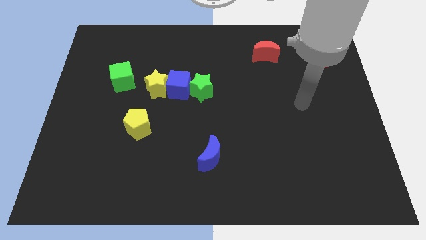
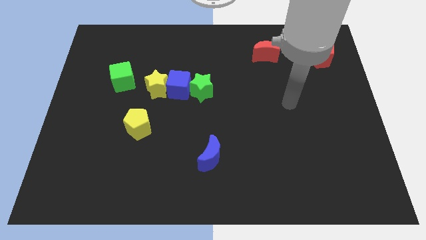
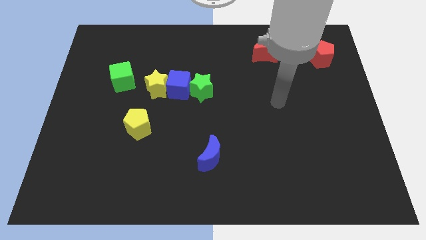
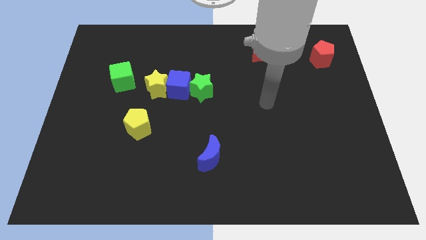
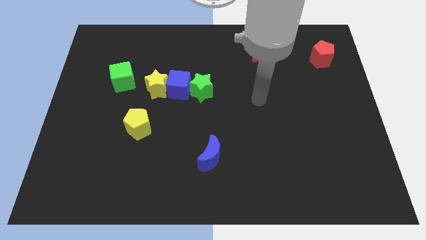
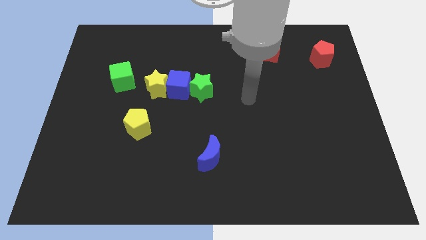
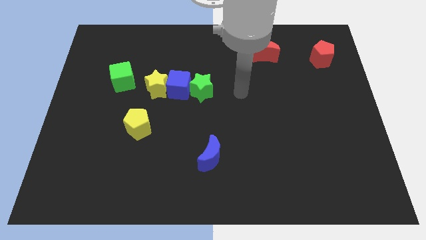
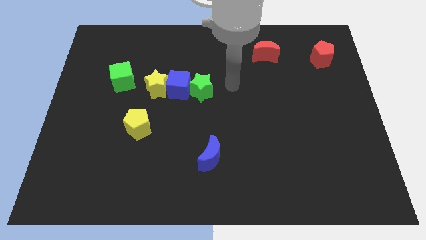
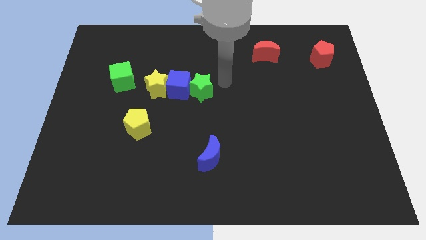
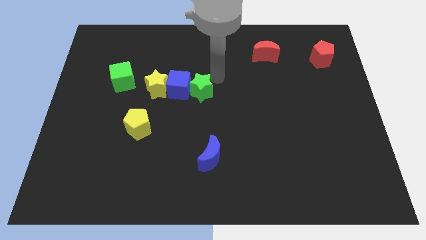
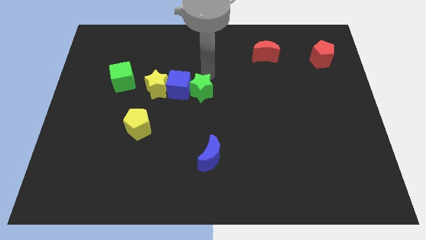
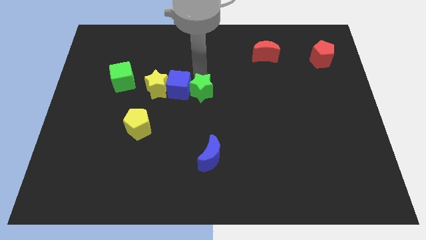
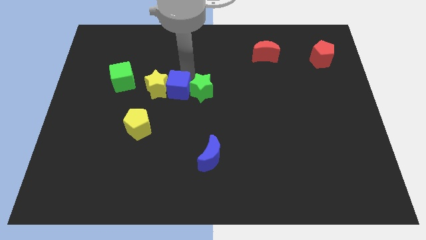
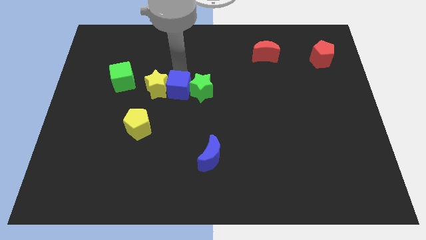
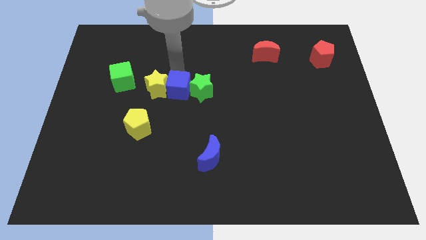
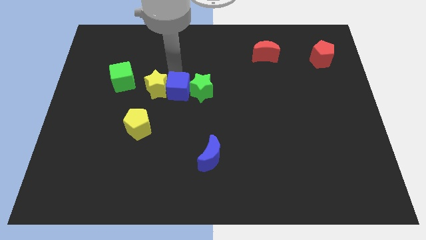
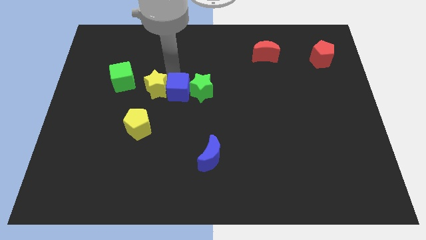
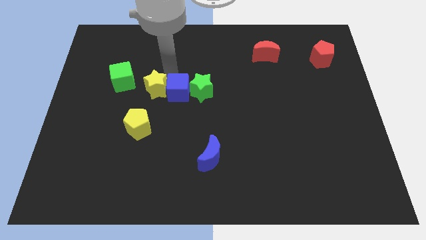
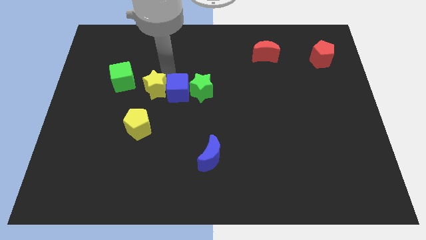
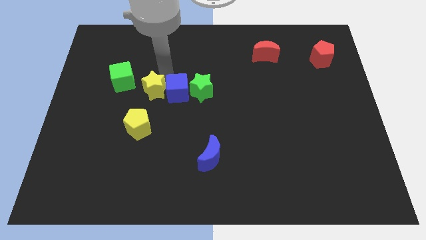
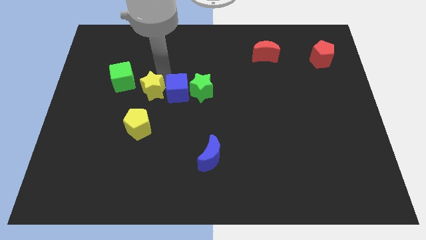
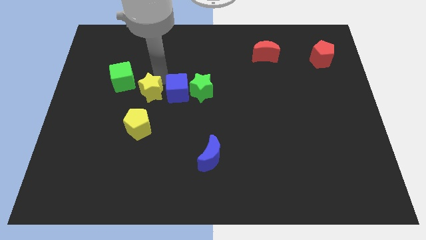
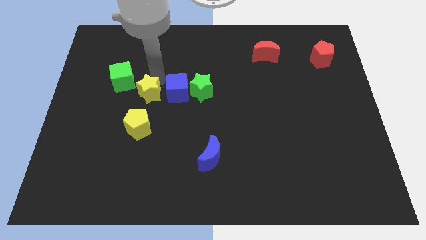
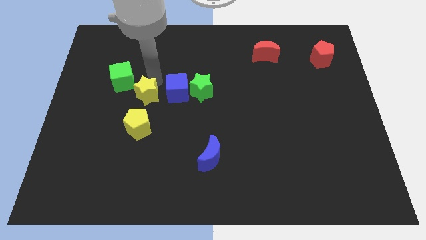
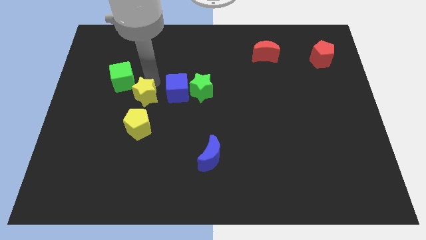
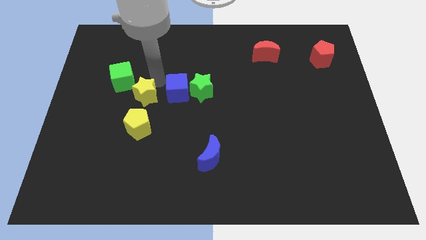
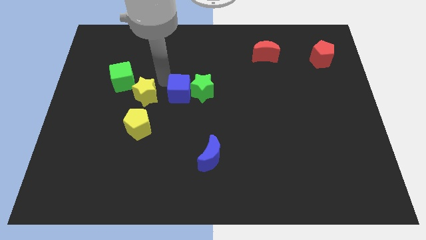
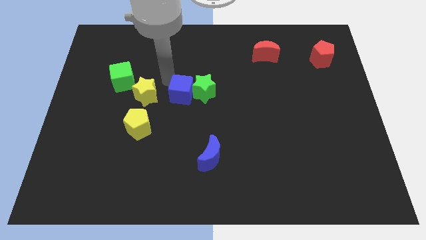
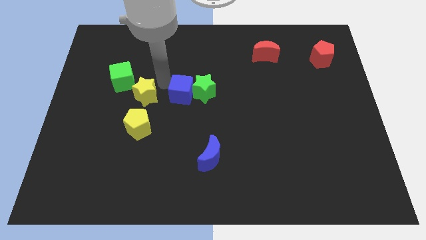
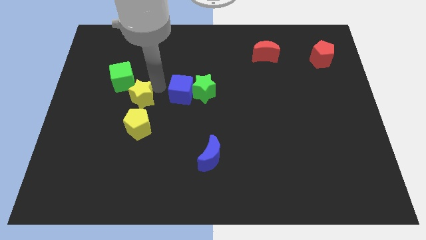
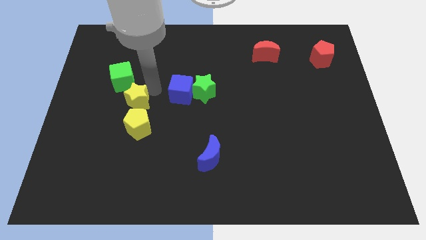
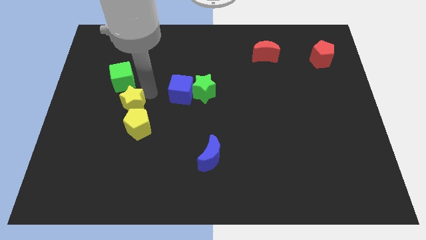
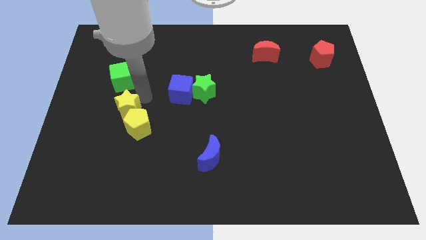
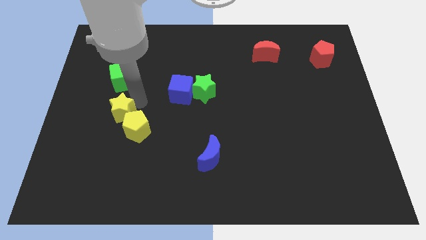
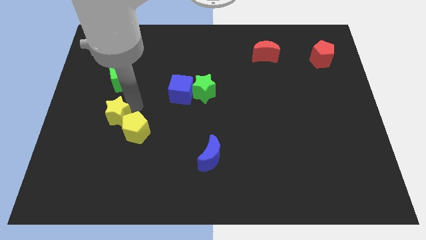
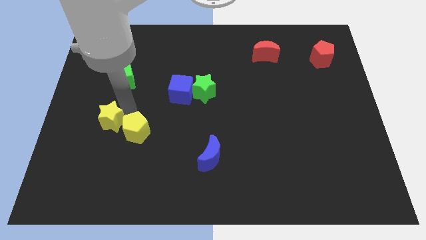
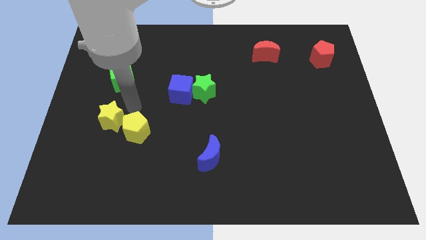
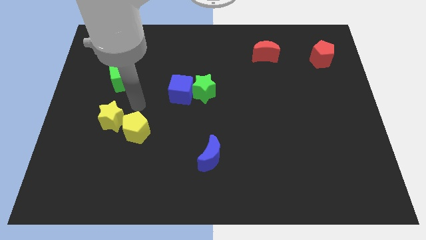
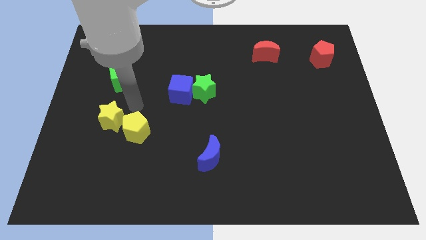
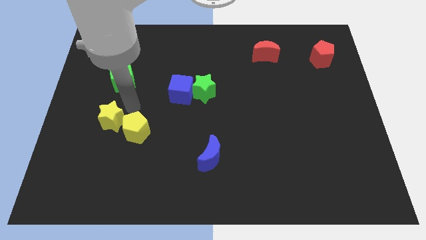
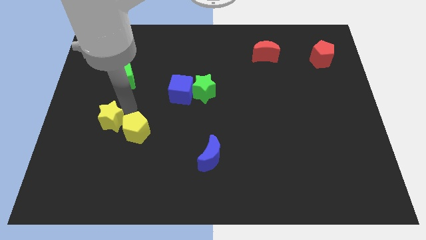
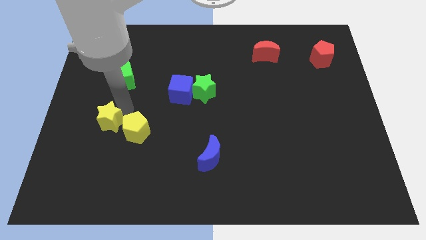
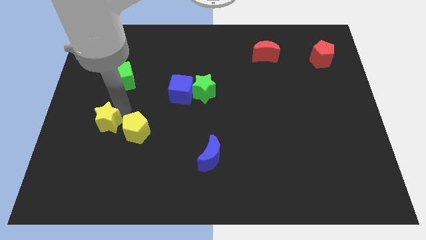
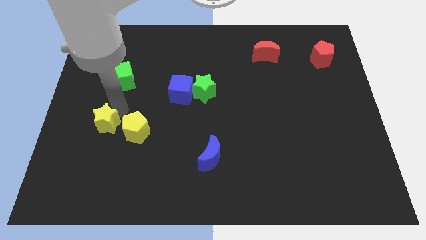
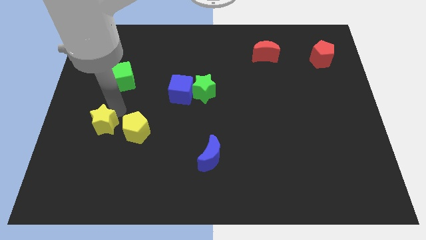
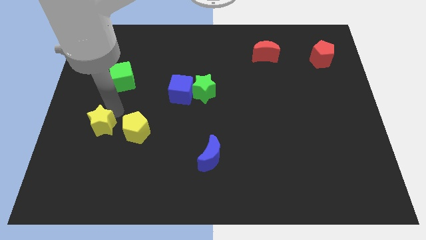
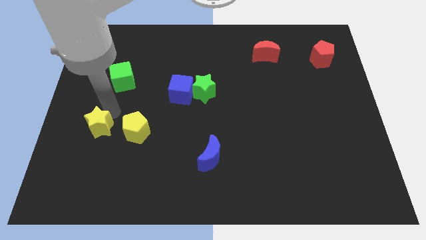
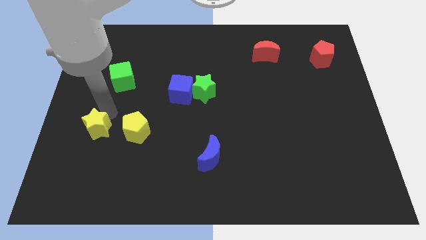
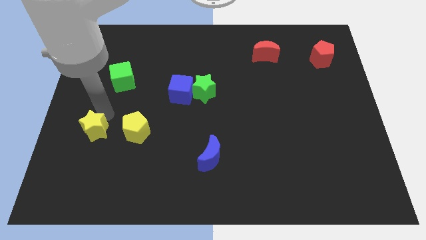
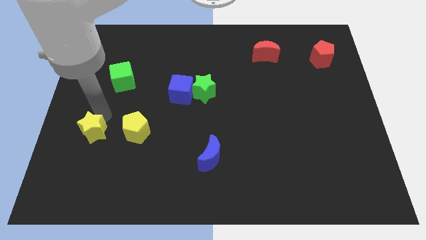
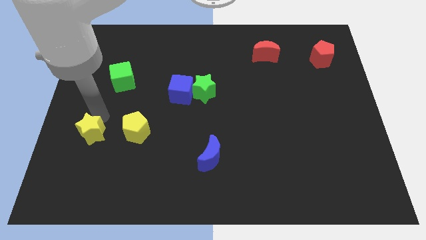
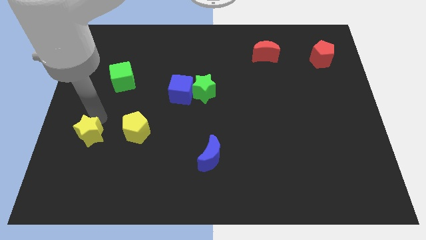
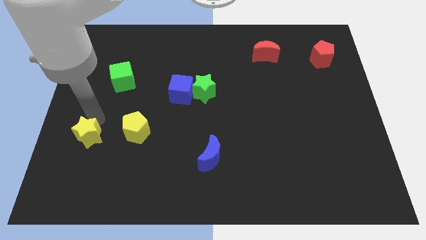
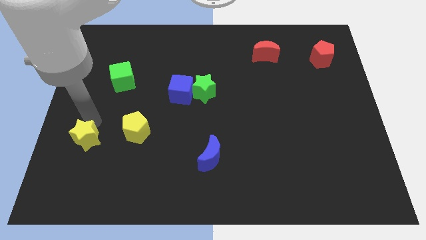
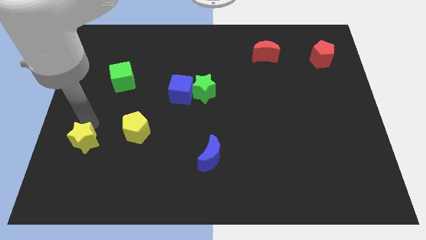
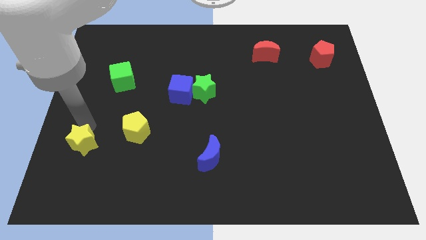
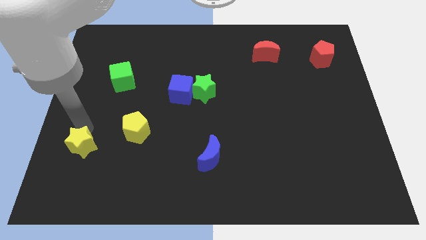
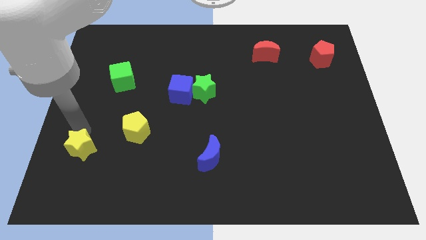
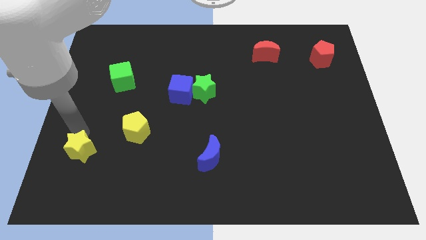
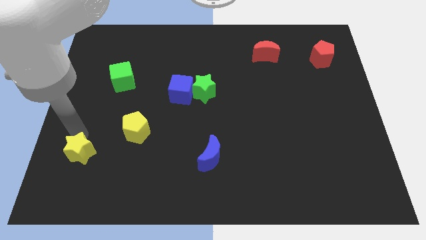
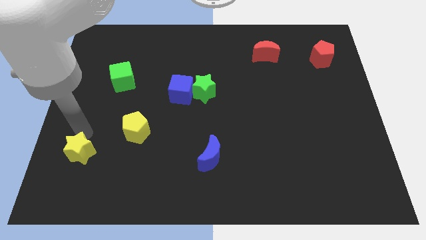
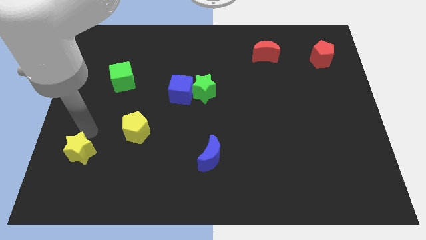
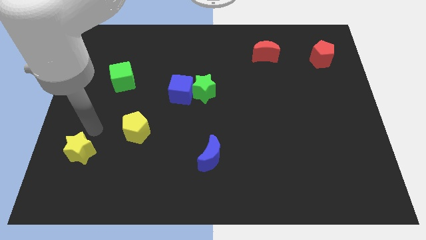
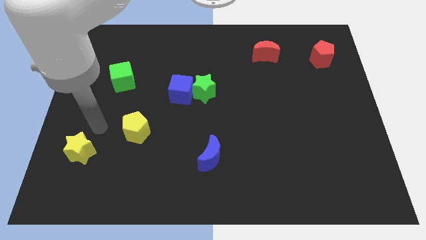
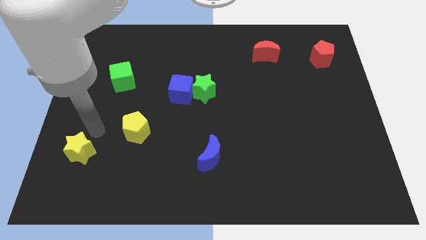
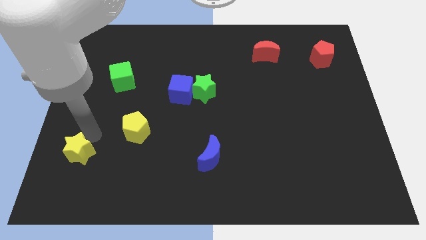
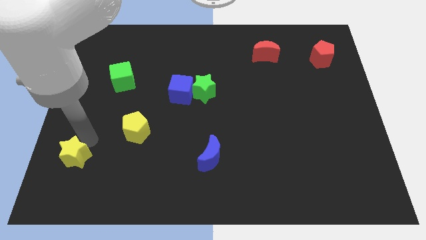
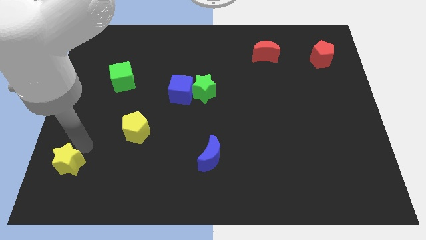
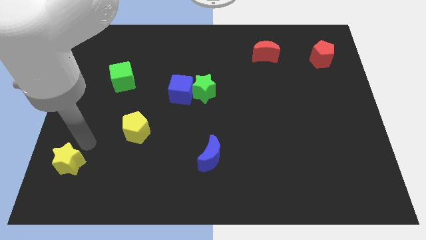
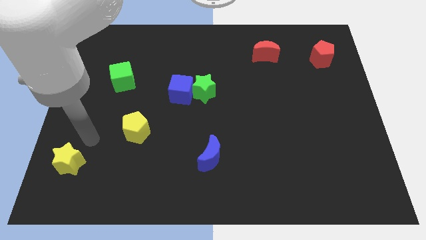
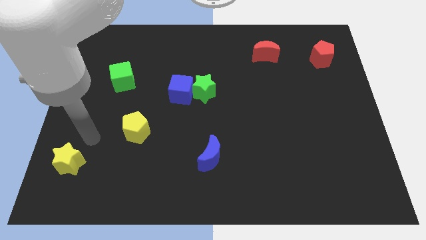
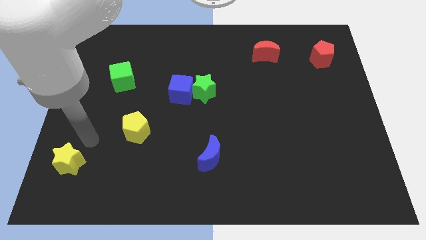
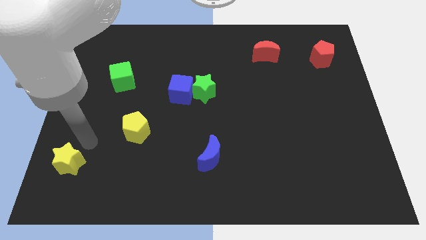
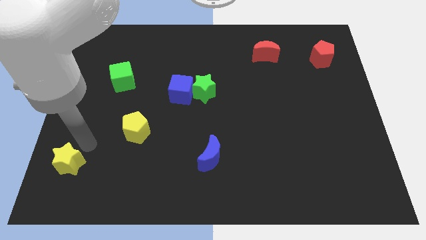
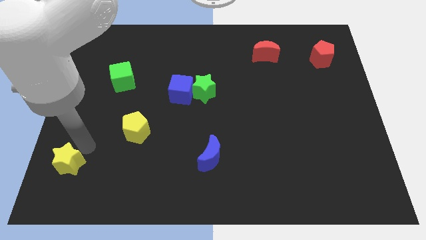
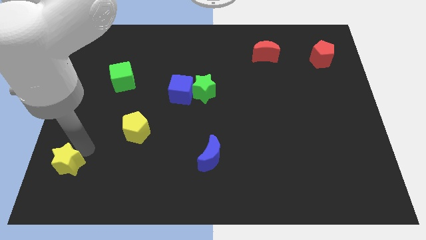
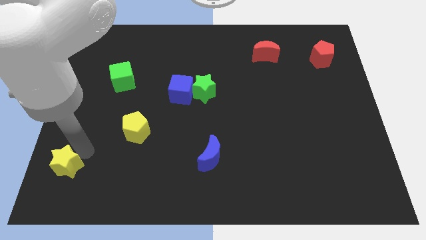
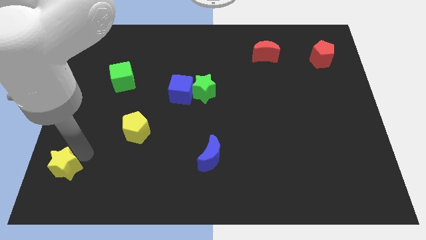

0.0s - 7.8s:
move the yellow star to the bottom left corner
